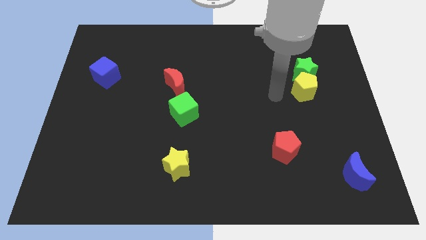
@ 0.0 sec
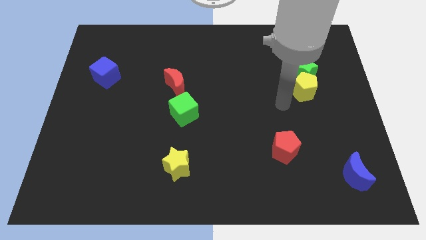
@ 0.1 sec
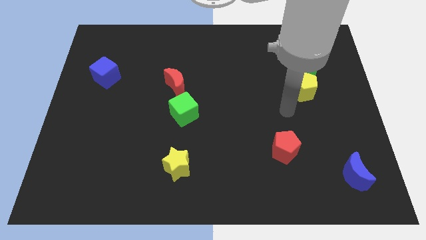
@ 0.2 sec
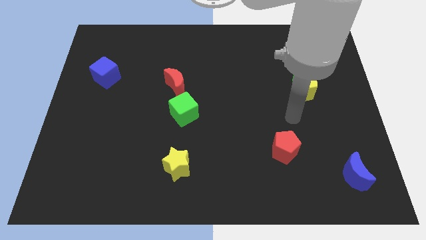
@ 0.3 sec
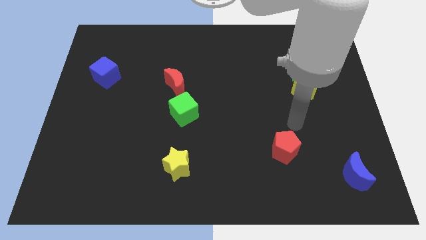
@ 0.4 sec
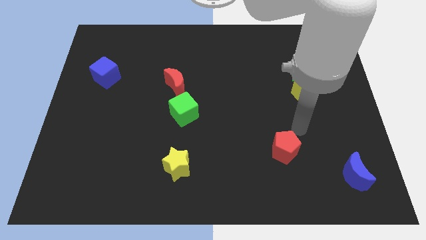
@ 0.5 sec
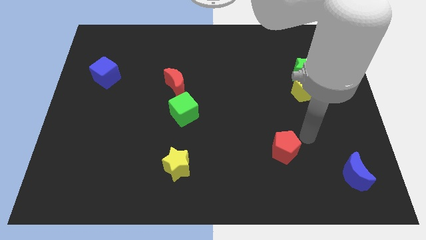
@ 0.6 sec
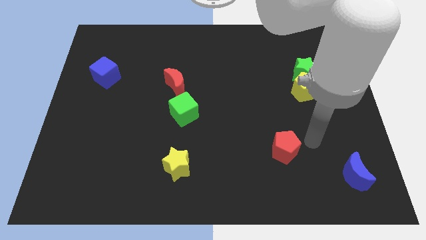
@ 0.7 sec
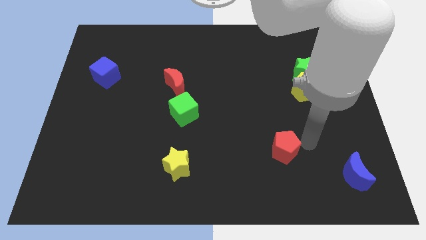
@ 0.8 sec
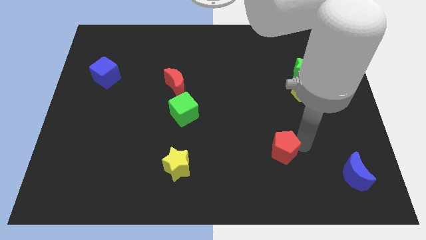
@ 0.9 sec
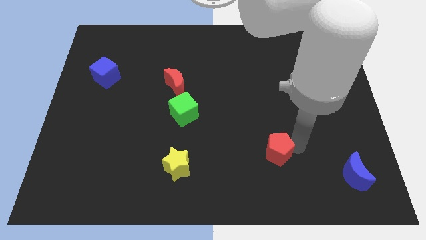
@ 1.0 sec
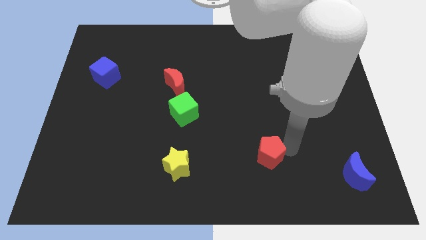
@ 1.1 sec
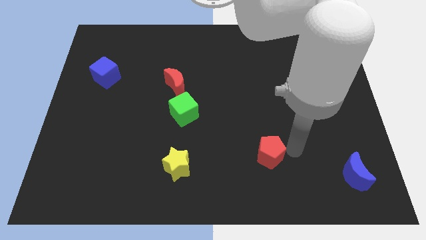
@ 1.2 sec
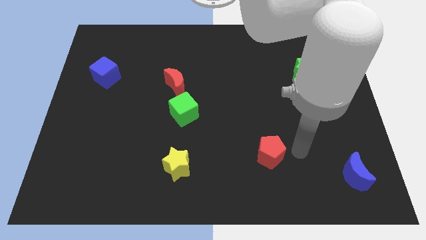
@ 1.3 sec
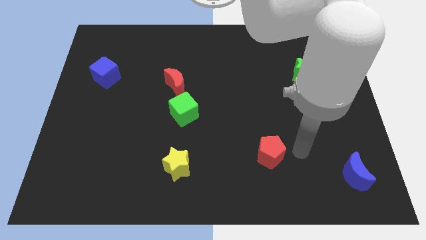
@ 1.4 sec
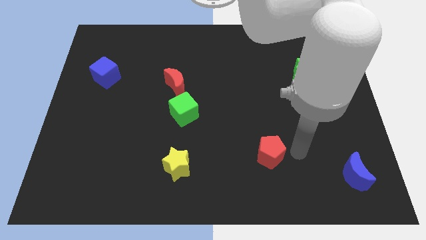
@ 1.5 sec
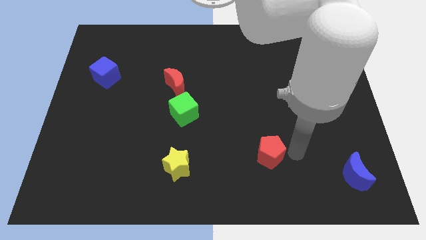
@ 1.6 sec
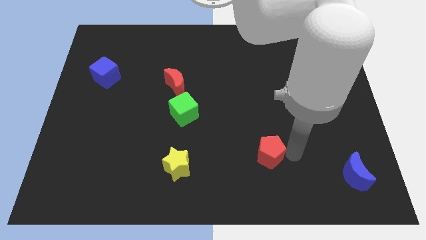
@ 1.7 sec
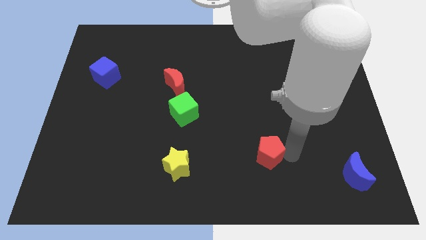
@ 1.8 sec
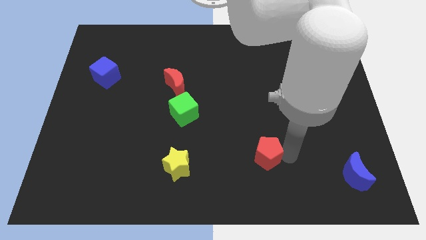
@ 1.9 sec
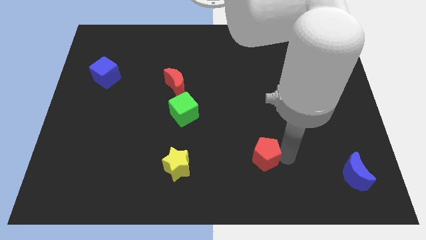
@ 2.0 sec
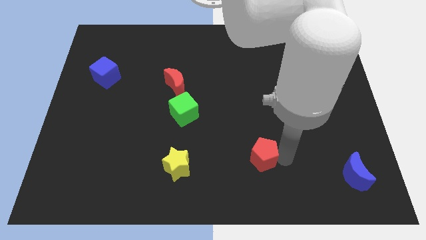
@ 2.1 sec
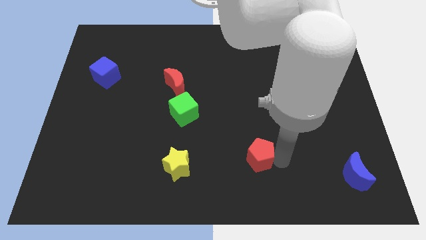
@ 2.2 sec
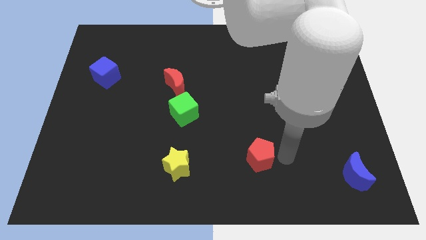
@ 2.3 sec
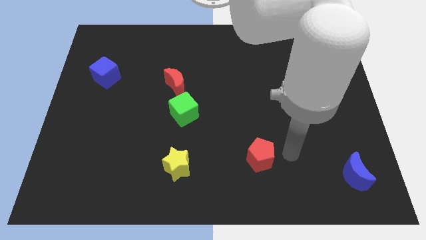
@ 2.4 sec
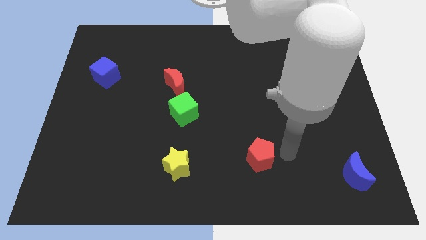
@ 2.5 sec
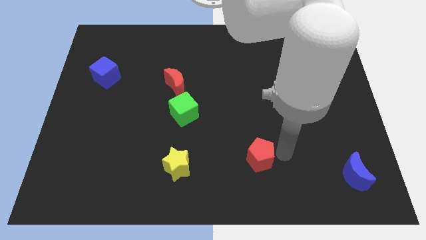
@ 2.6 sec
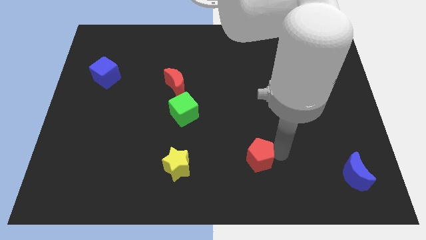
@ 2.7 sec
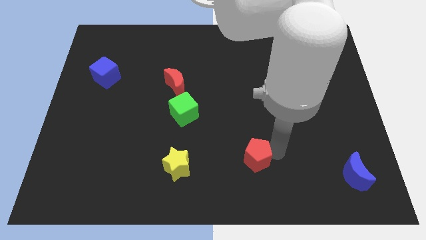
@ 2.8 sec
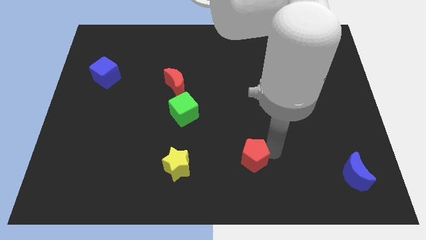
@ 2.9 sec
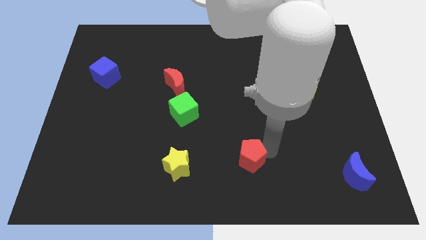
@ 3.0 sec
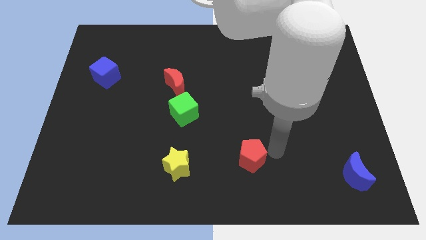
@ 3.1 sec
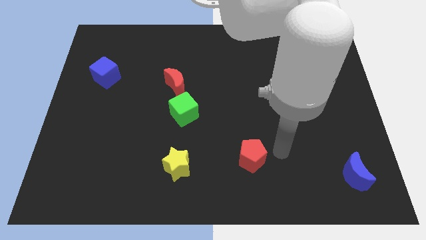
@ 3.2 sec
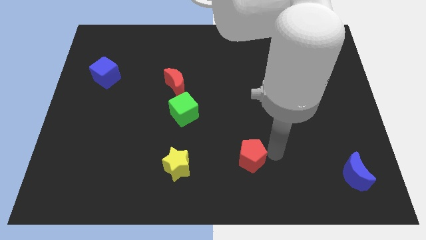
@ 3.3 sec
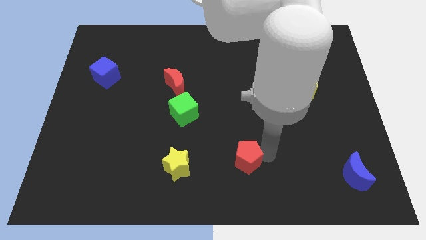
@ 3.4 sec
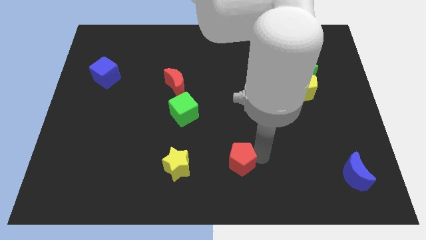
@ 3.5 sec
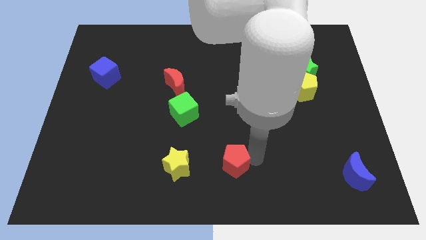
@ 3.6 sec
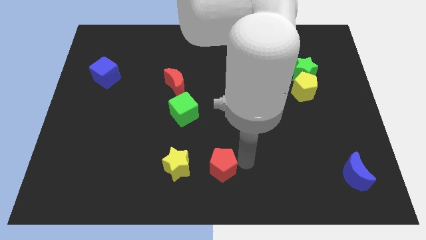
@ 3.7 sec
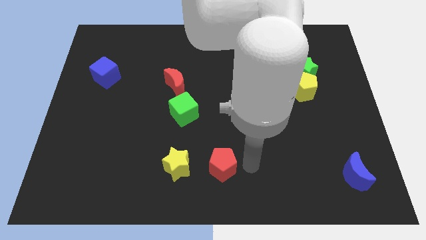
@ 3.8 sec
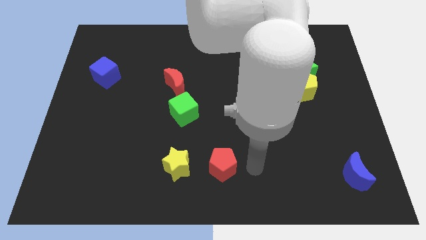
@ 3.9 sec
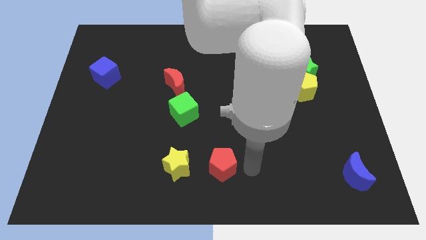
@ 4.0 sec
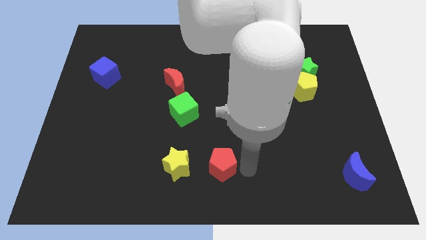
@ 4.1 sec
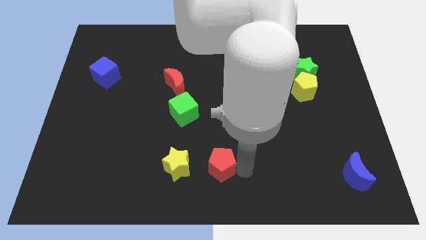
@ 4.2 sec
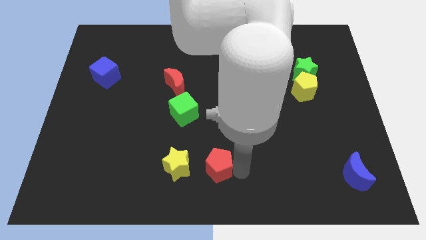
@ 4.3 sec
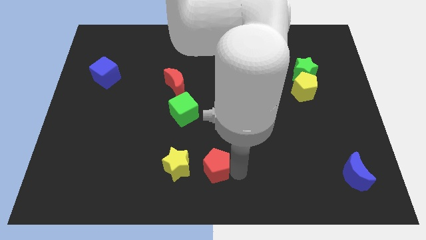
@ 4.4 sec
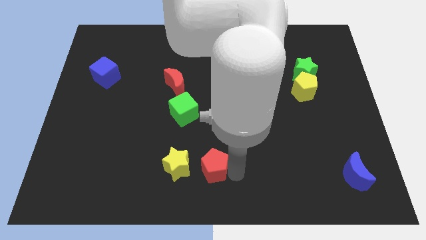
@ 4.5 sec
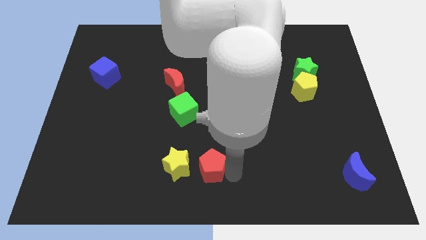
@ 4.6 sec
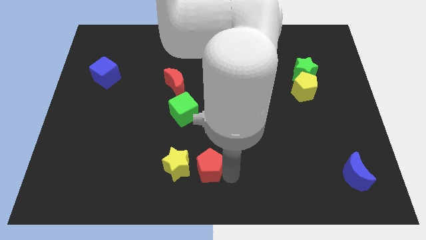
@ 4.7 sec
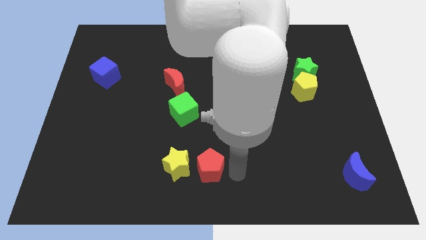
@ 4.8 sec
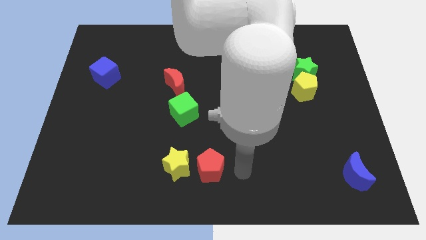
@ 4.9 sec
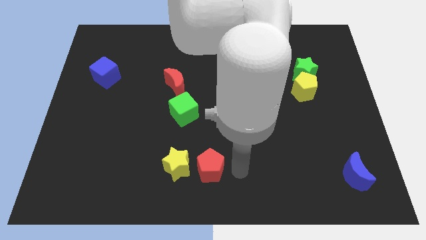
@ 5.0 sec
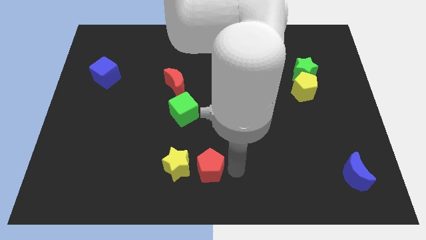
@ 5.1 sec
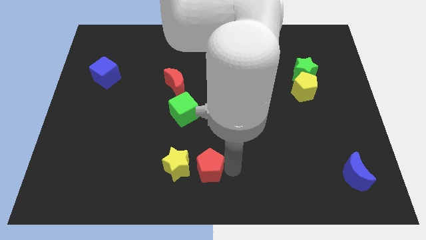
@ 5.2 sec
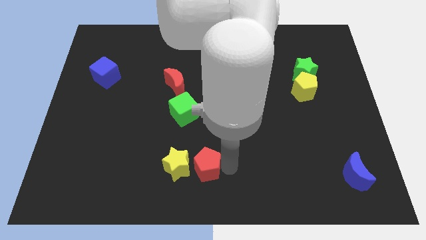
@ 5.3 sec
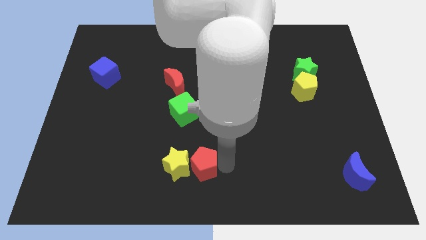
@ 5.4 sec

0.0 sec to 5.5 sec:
put the red pentagon towards the yellow star

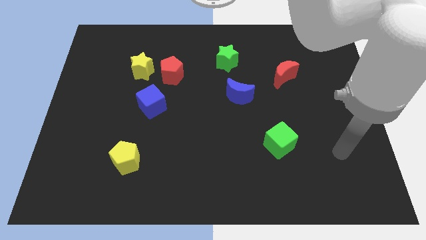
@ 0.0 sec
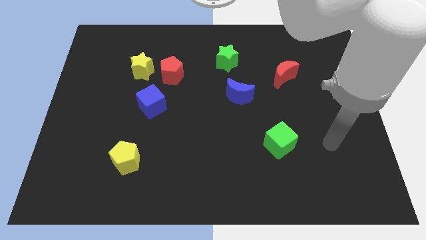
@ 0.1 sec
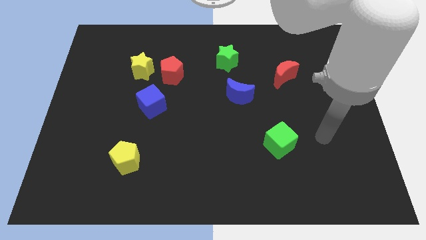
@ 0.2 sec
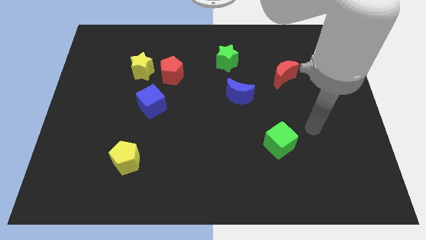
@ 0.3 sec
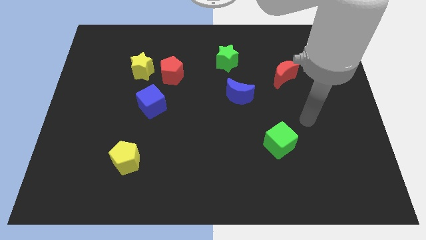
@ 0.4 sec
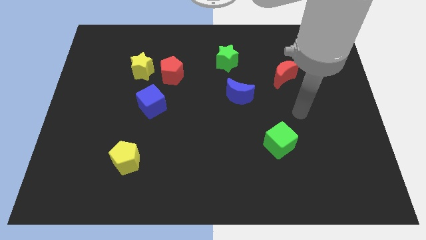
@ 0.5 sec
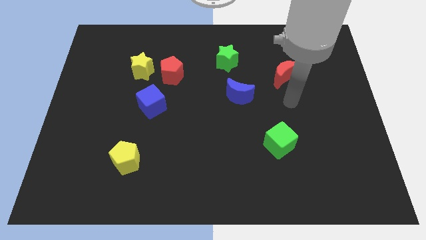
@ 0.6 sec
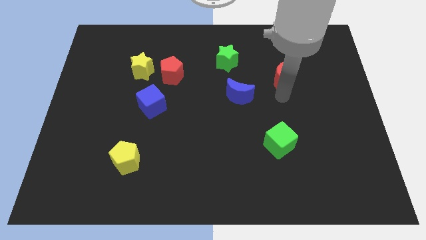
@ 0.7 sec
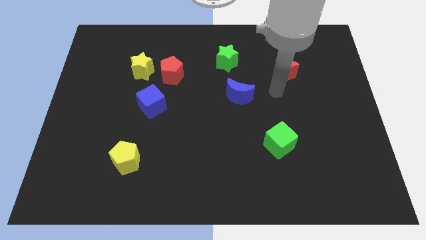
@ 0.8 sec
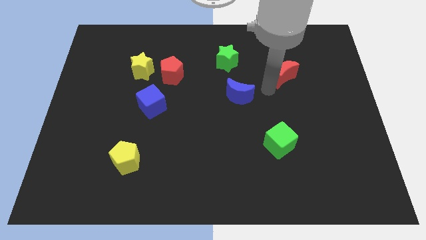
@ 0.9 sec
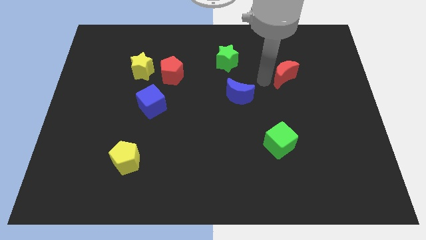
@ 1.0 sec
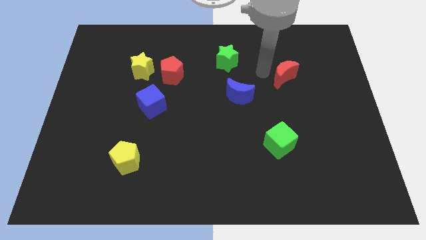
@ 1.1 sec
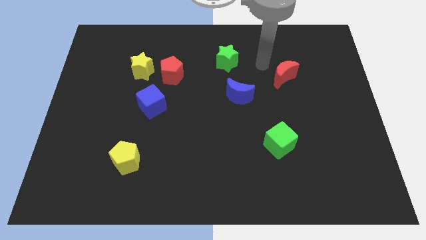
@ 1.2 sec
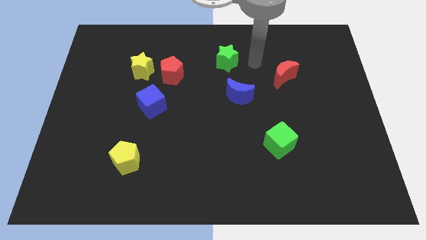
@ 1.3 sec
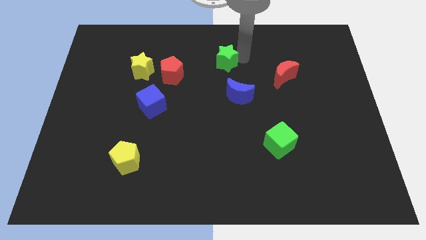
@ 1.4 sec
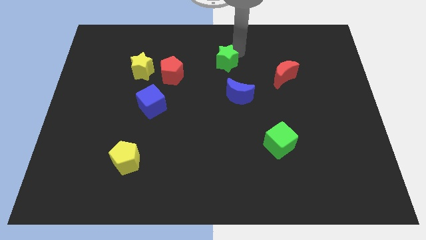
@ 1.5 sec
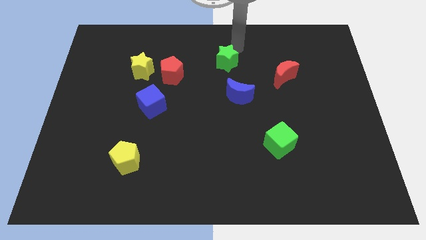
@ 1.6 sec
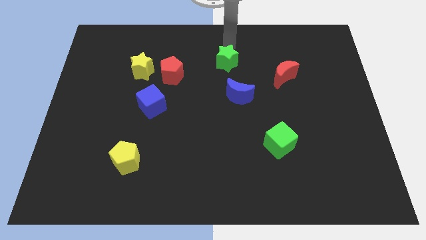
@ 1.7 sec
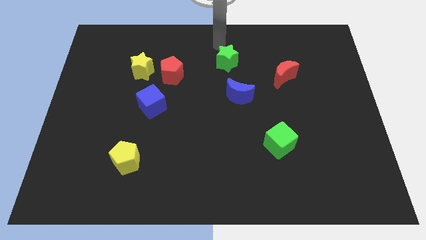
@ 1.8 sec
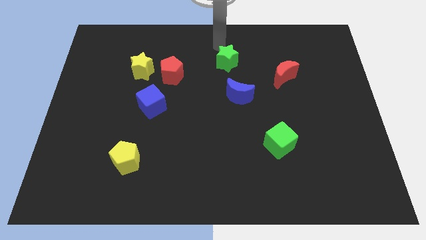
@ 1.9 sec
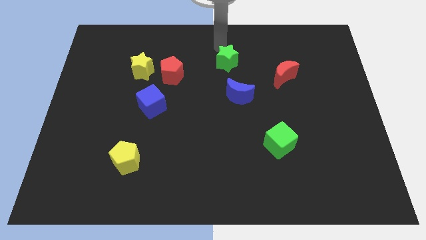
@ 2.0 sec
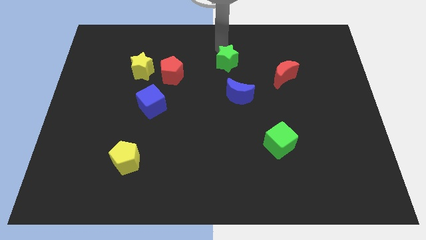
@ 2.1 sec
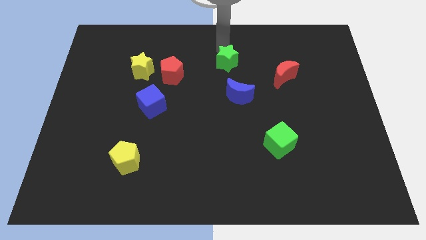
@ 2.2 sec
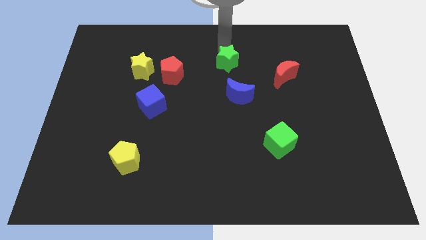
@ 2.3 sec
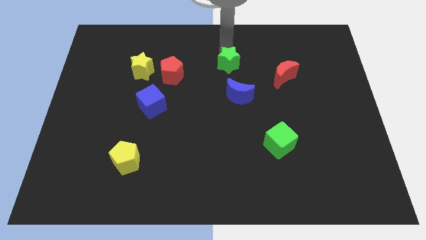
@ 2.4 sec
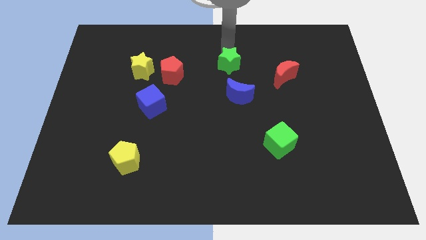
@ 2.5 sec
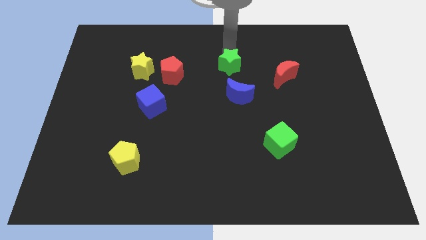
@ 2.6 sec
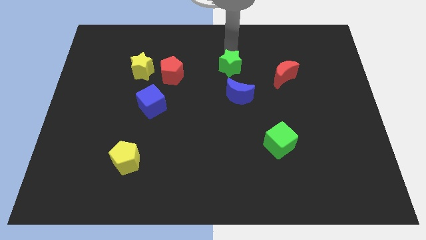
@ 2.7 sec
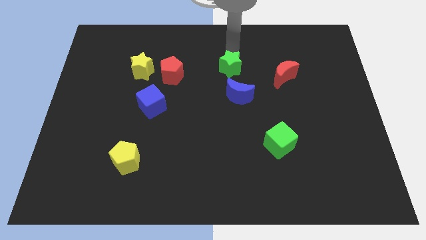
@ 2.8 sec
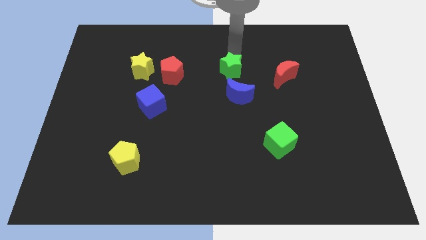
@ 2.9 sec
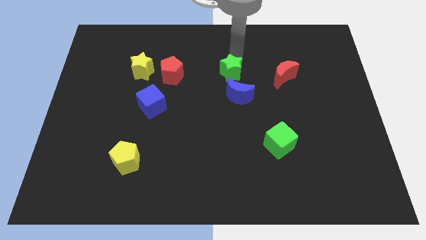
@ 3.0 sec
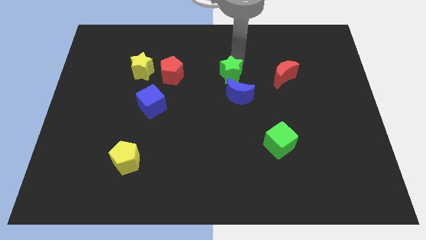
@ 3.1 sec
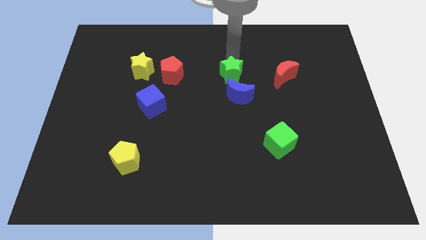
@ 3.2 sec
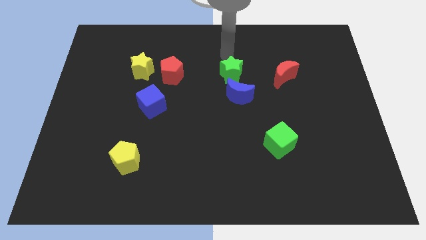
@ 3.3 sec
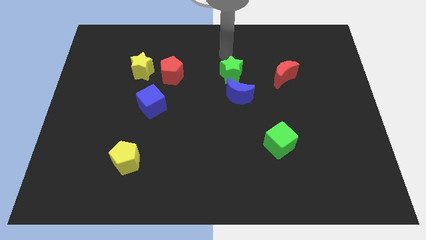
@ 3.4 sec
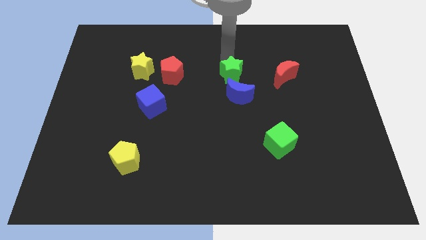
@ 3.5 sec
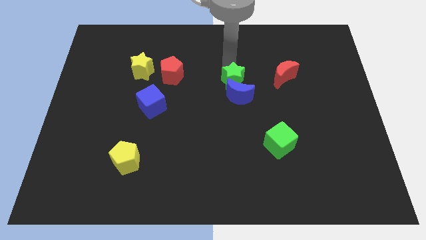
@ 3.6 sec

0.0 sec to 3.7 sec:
move the green star close to the blue moon
